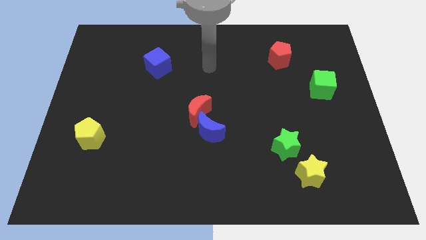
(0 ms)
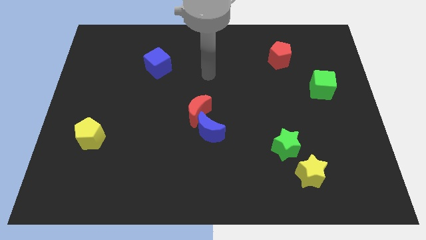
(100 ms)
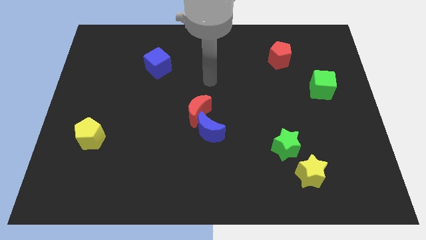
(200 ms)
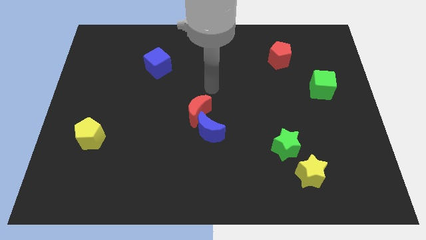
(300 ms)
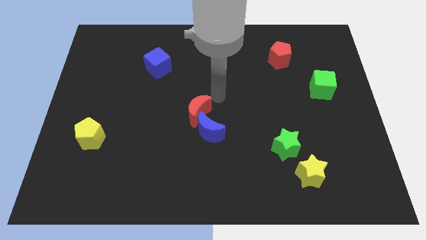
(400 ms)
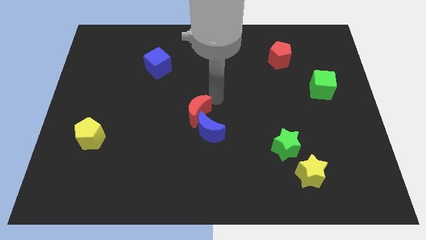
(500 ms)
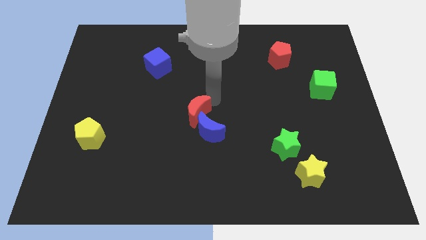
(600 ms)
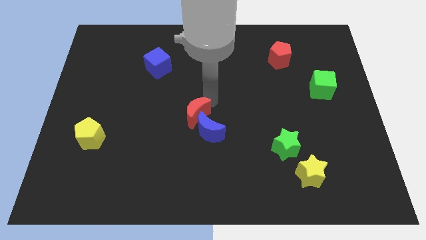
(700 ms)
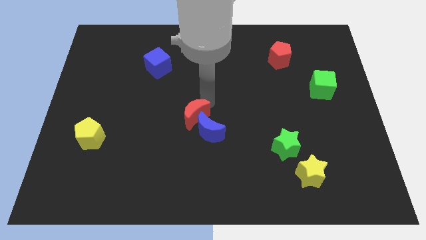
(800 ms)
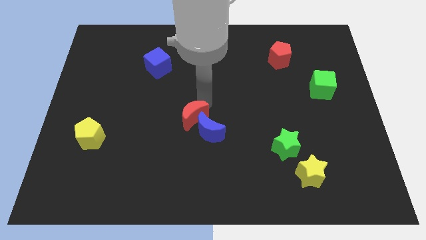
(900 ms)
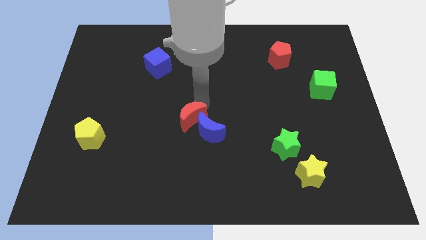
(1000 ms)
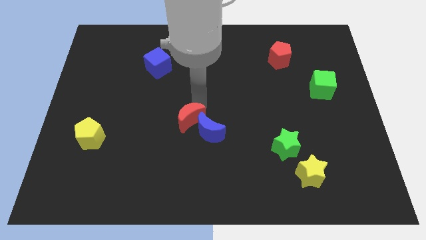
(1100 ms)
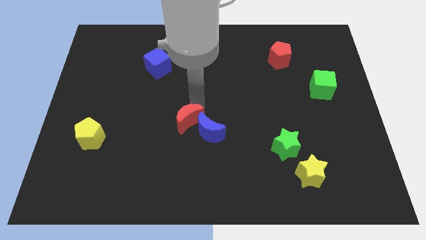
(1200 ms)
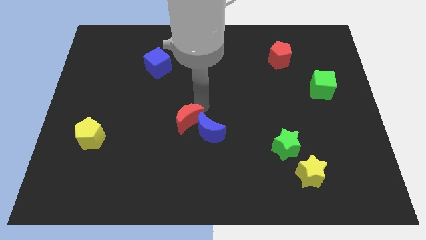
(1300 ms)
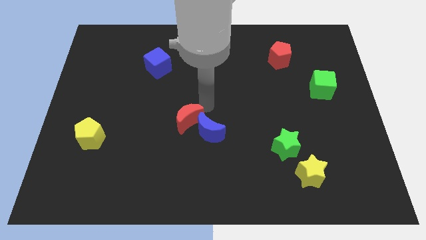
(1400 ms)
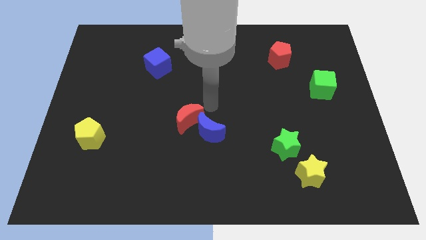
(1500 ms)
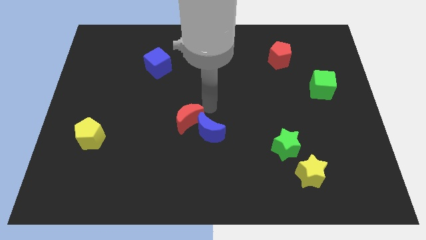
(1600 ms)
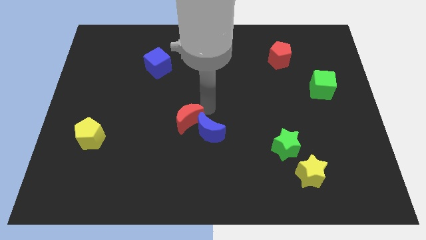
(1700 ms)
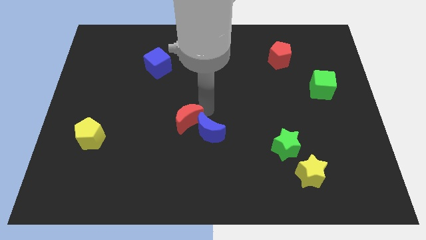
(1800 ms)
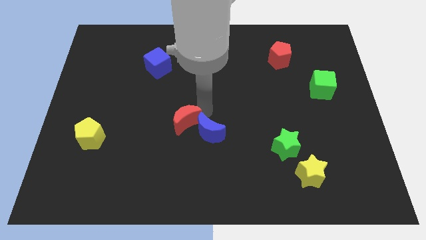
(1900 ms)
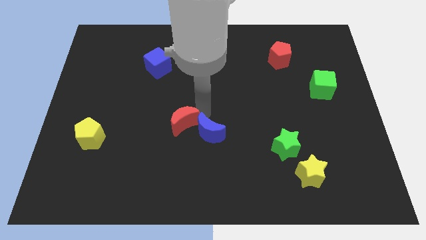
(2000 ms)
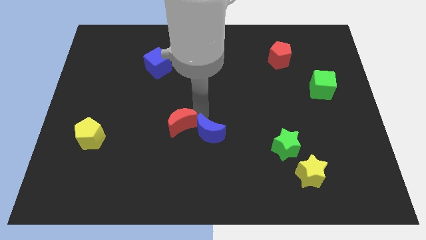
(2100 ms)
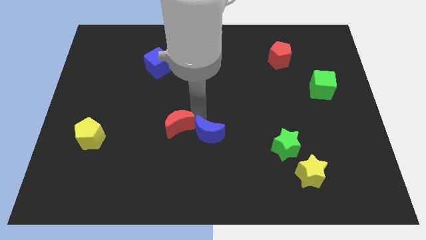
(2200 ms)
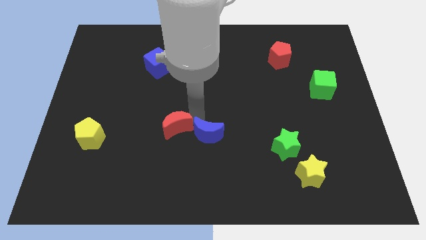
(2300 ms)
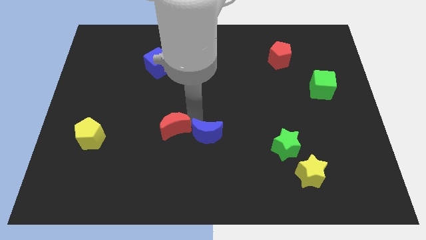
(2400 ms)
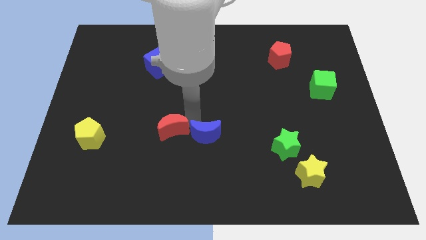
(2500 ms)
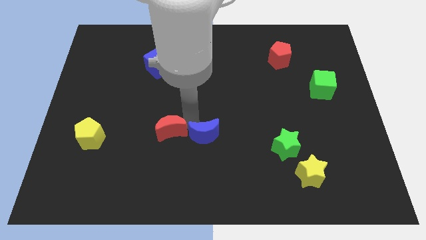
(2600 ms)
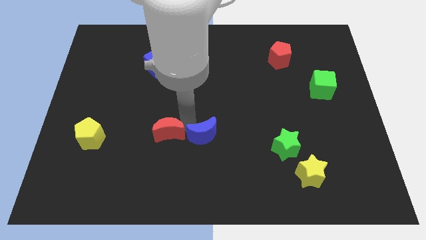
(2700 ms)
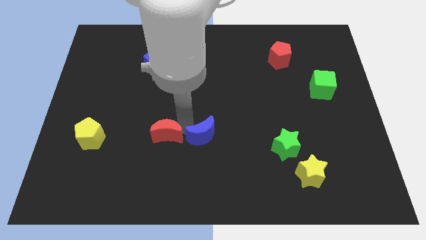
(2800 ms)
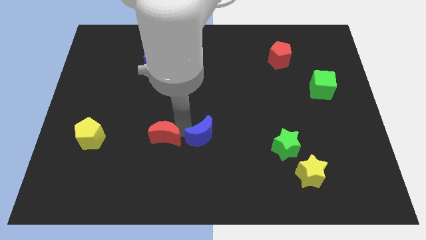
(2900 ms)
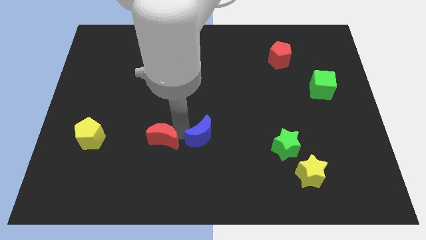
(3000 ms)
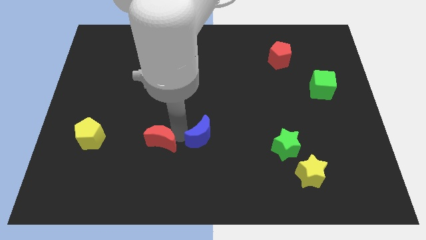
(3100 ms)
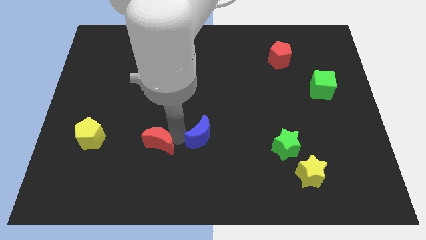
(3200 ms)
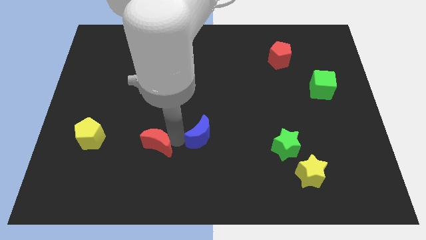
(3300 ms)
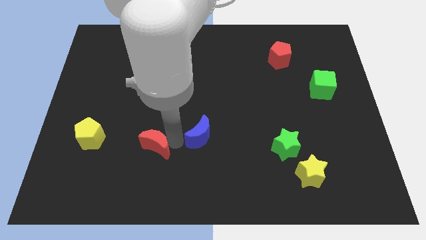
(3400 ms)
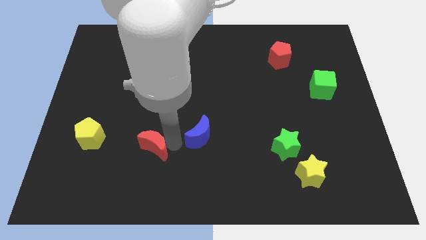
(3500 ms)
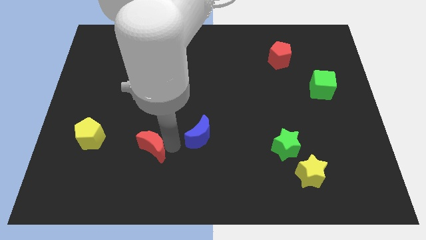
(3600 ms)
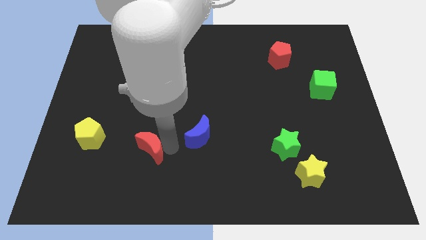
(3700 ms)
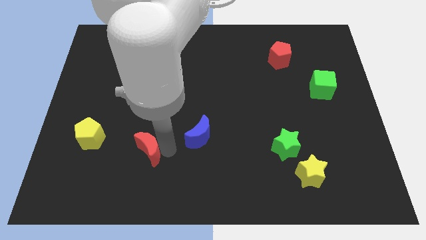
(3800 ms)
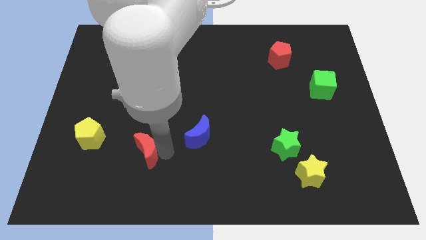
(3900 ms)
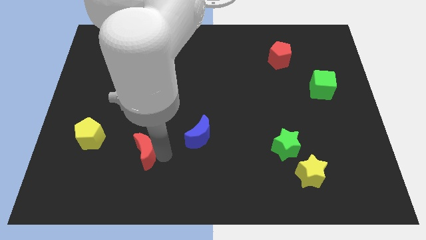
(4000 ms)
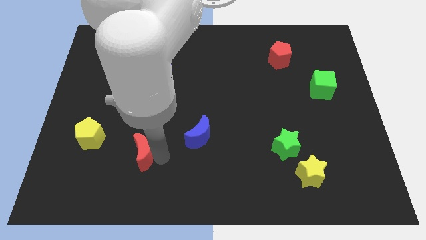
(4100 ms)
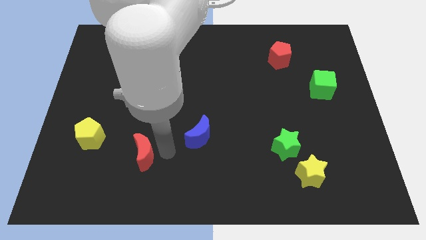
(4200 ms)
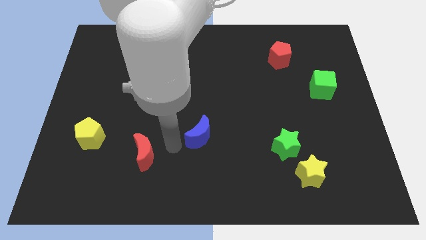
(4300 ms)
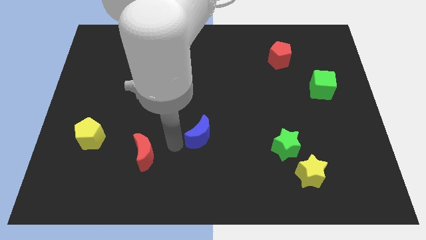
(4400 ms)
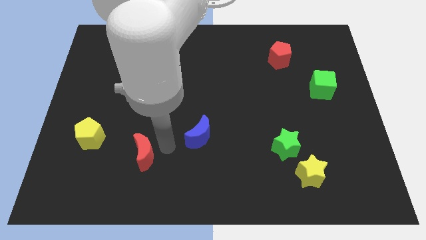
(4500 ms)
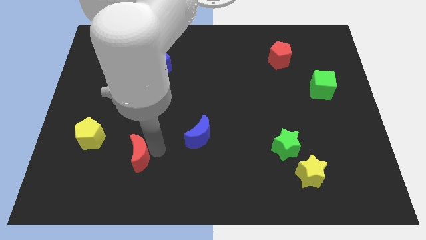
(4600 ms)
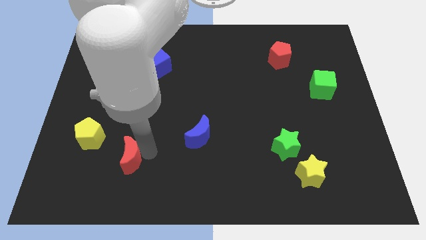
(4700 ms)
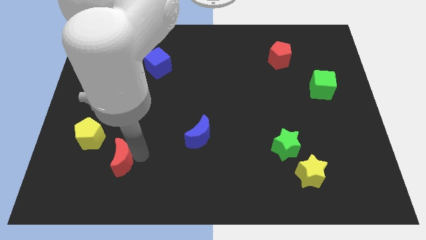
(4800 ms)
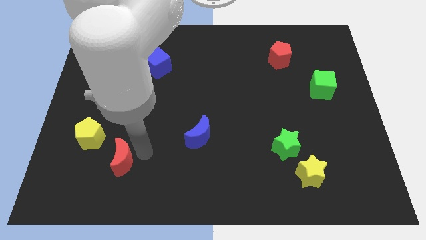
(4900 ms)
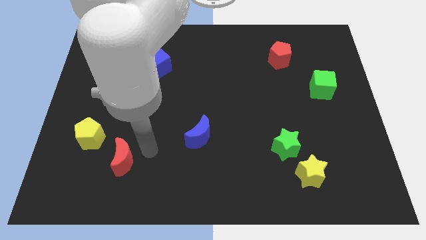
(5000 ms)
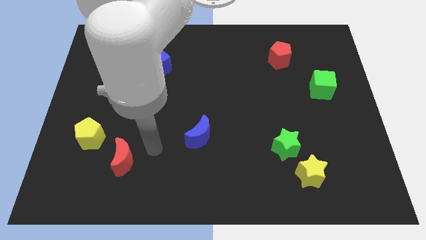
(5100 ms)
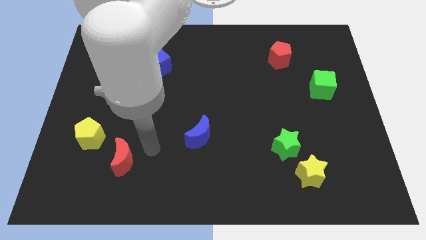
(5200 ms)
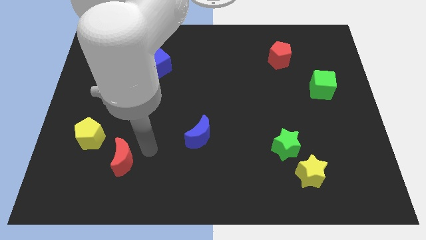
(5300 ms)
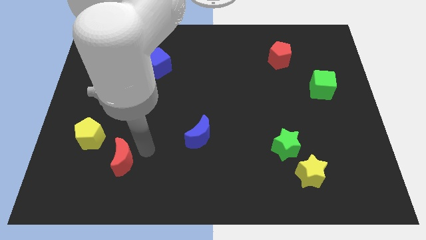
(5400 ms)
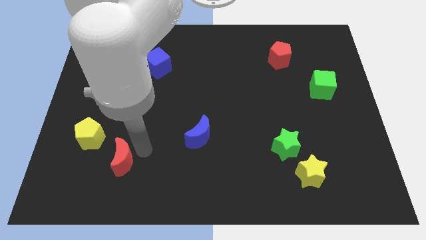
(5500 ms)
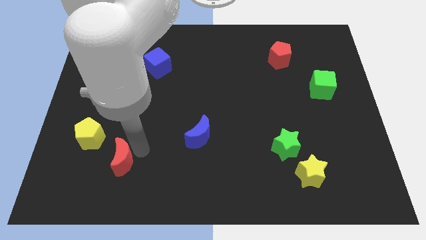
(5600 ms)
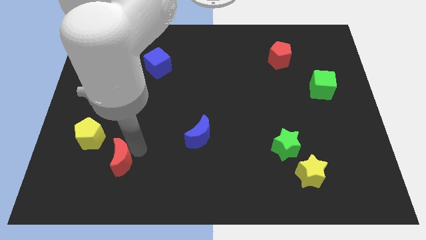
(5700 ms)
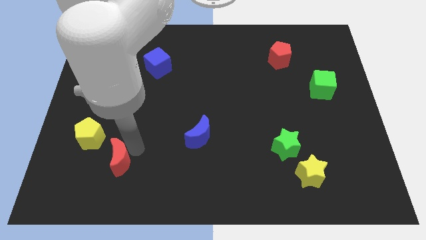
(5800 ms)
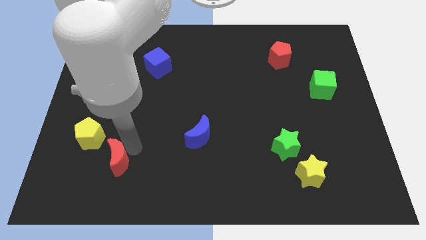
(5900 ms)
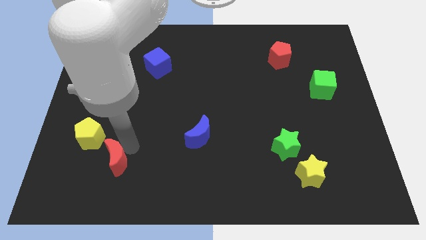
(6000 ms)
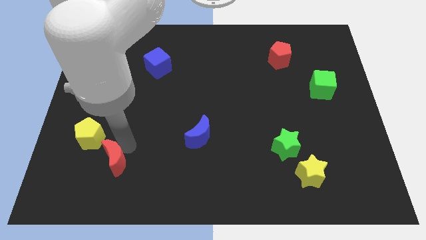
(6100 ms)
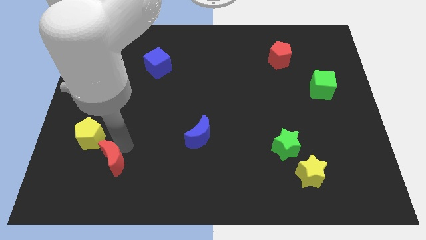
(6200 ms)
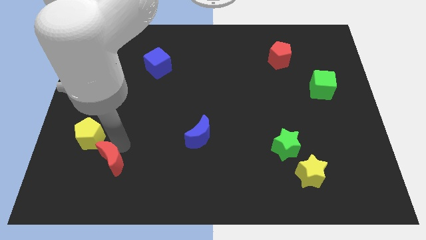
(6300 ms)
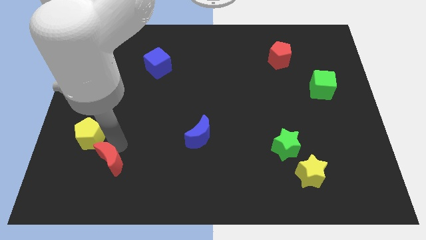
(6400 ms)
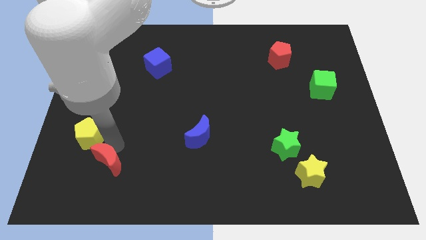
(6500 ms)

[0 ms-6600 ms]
put the red moon to the bottom side of the yellow pentagon
